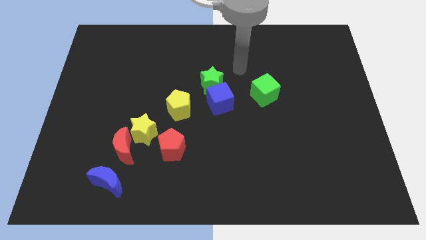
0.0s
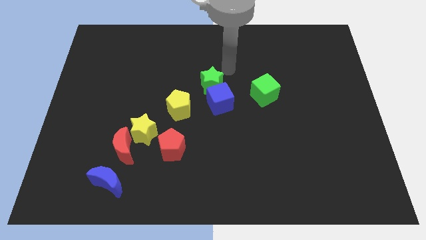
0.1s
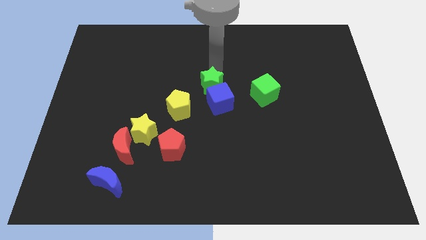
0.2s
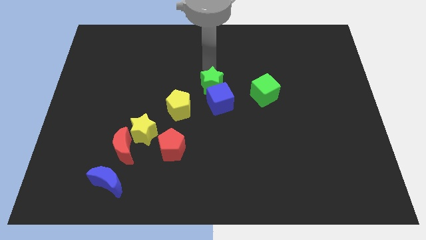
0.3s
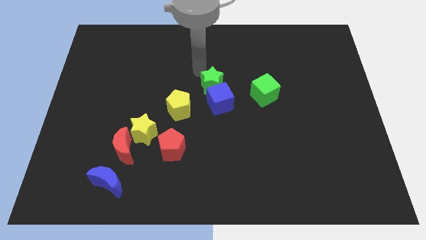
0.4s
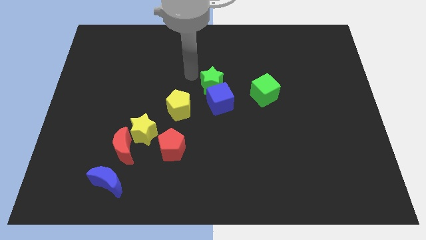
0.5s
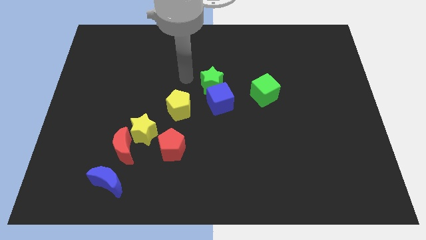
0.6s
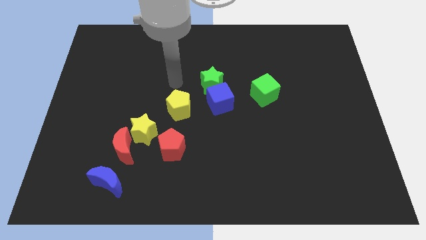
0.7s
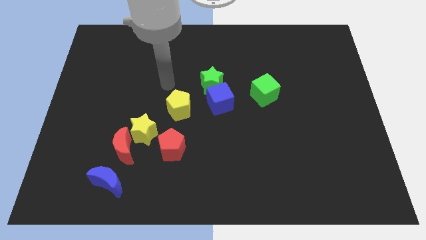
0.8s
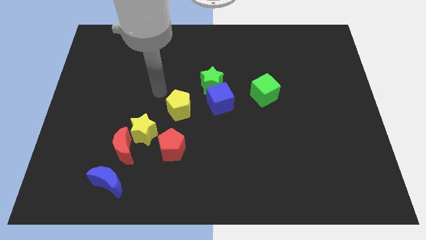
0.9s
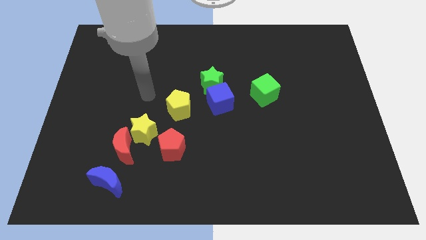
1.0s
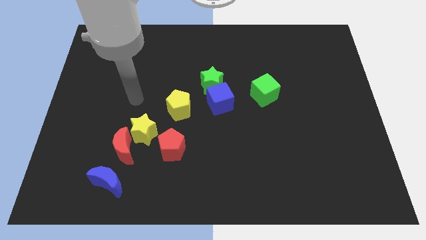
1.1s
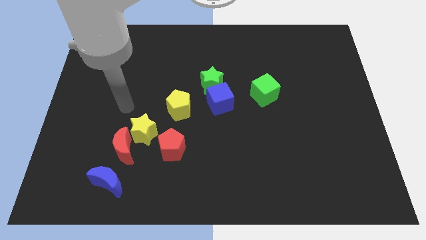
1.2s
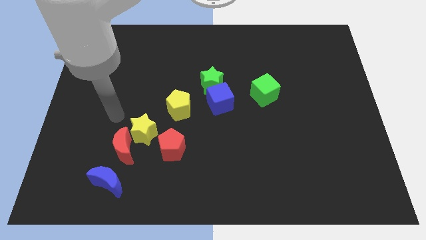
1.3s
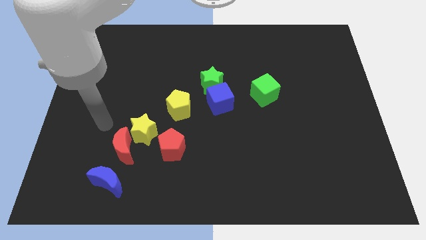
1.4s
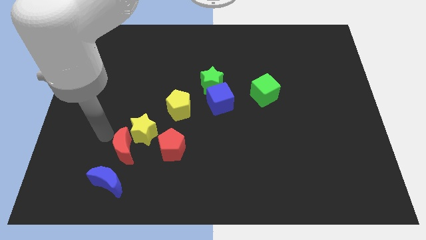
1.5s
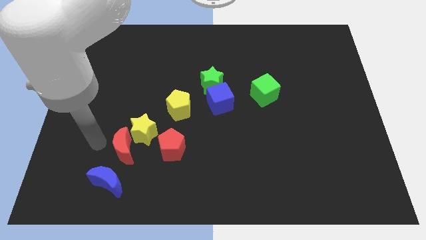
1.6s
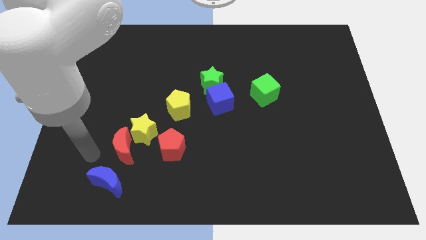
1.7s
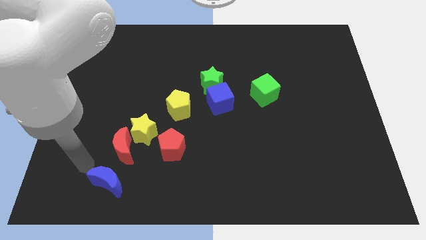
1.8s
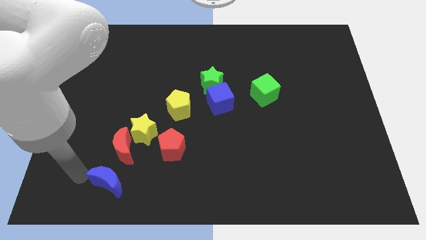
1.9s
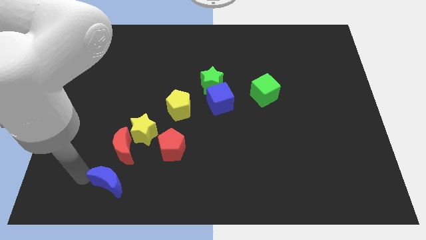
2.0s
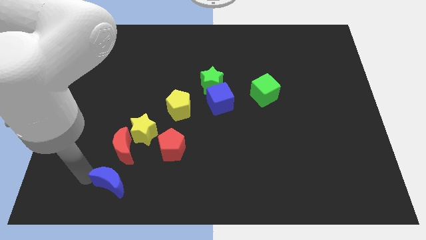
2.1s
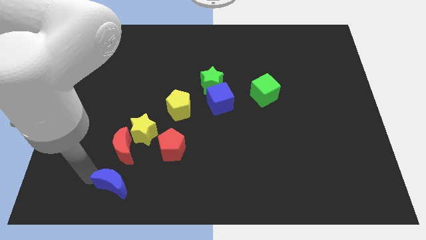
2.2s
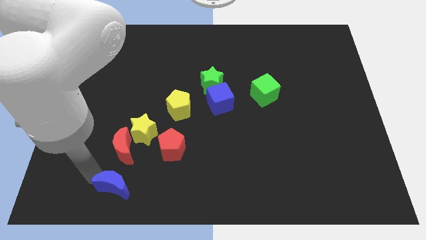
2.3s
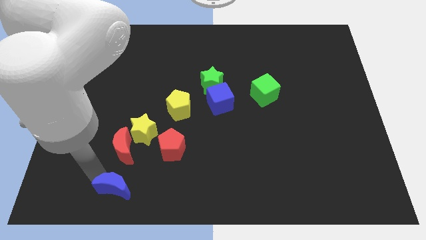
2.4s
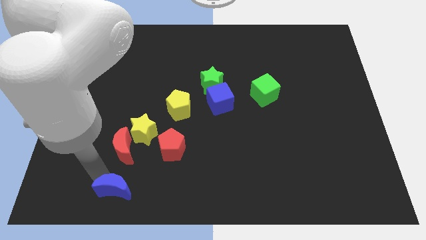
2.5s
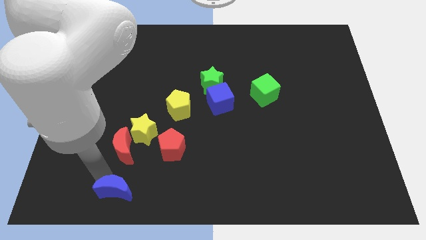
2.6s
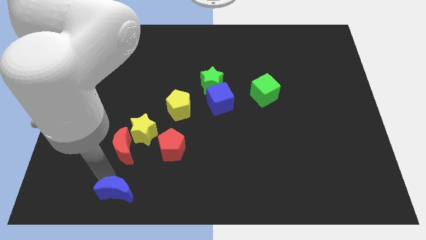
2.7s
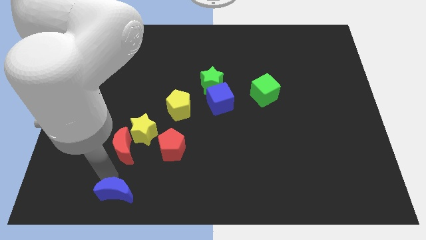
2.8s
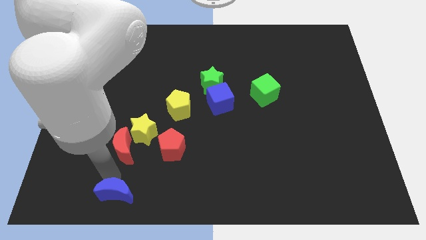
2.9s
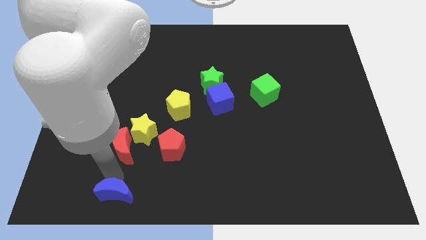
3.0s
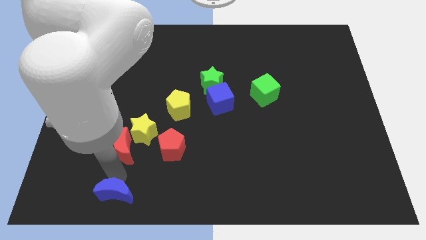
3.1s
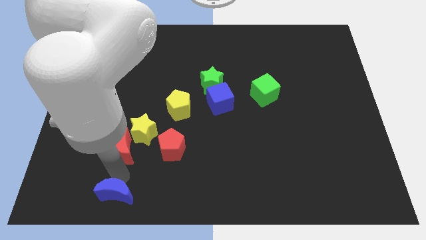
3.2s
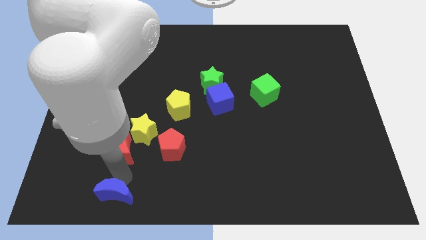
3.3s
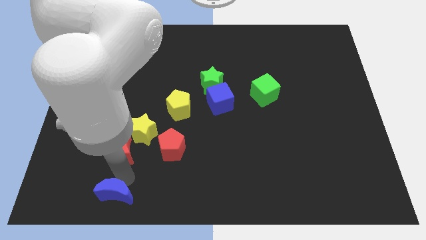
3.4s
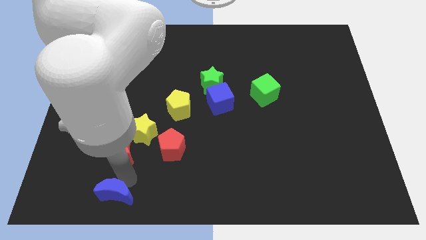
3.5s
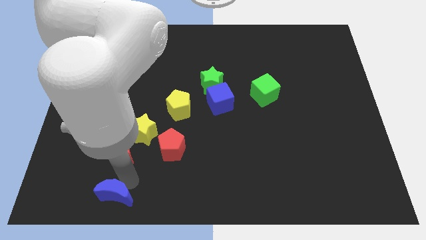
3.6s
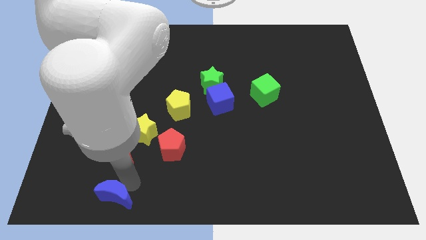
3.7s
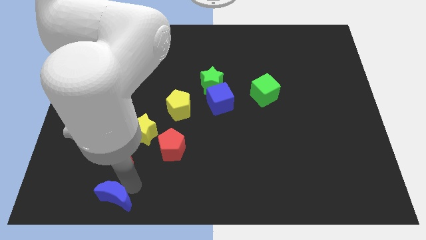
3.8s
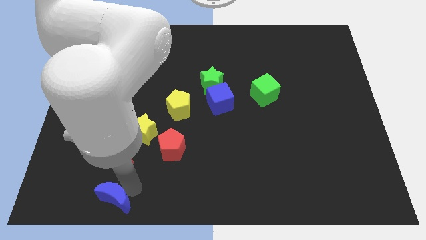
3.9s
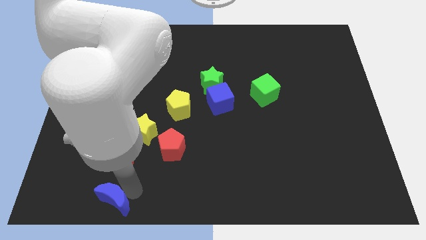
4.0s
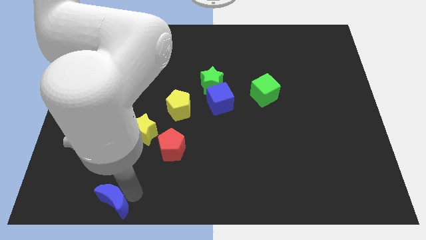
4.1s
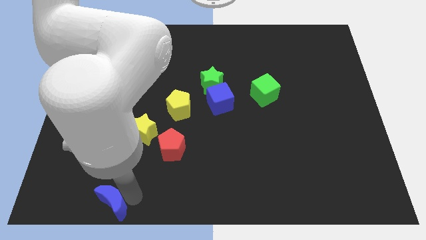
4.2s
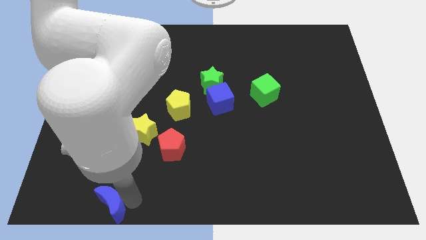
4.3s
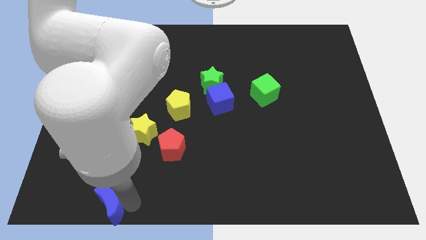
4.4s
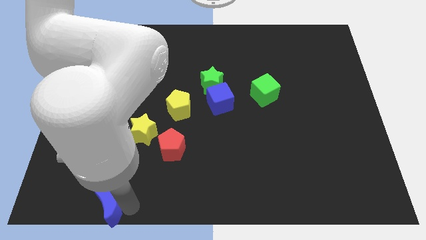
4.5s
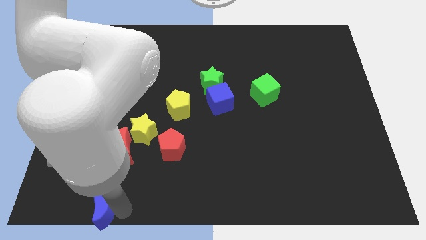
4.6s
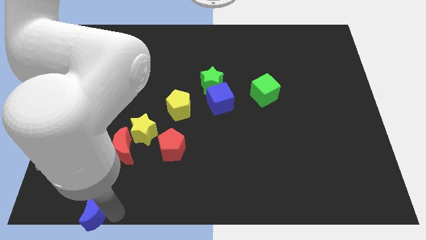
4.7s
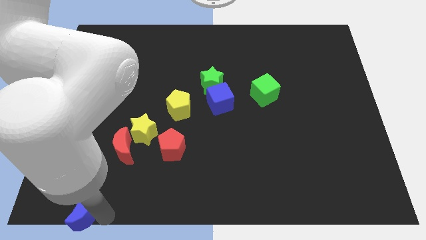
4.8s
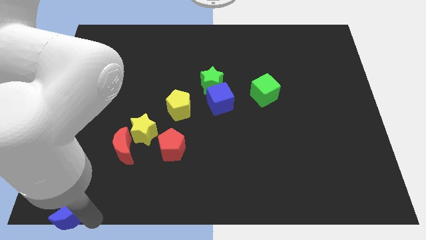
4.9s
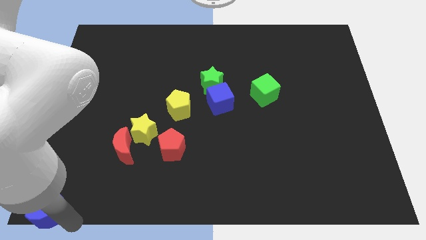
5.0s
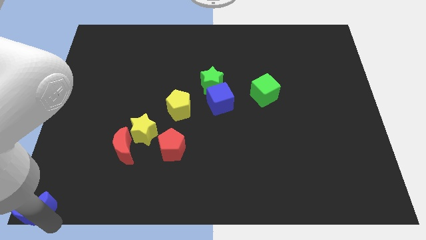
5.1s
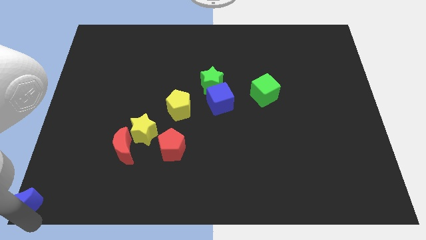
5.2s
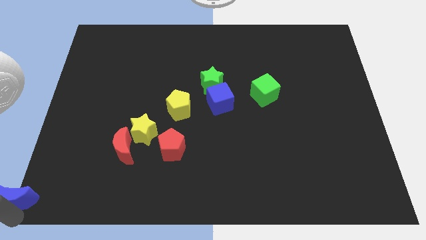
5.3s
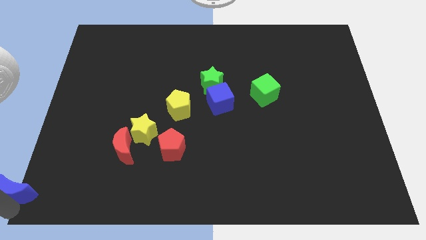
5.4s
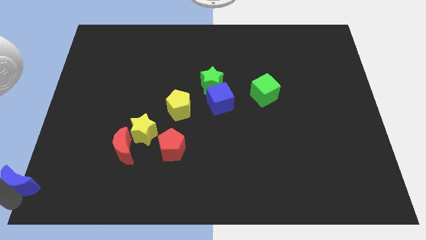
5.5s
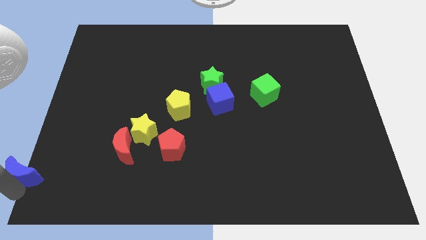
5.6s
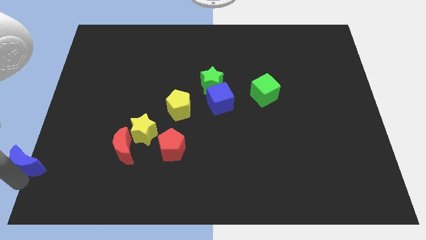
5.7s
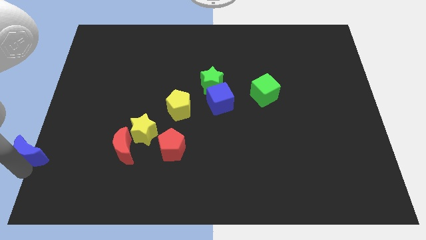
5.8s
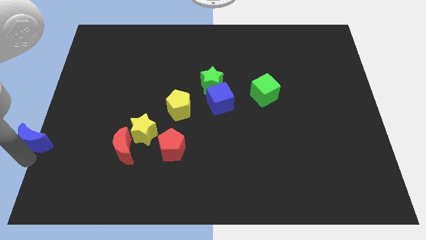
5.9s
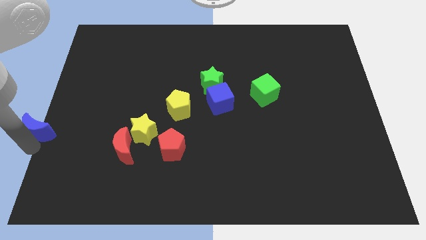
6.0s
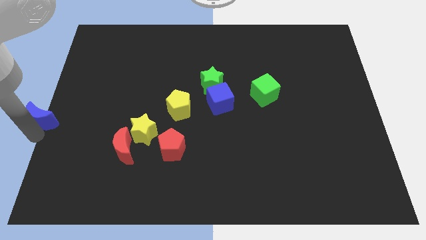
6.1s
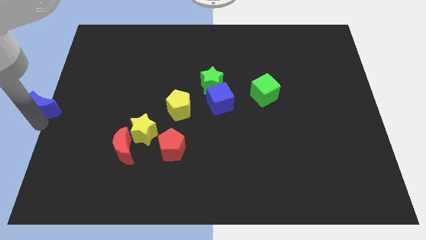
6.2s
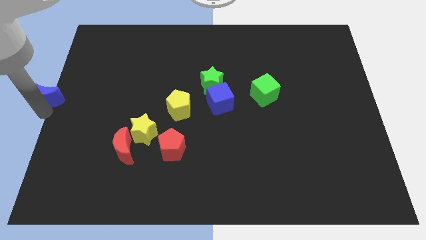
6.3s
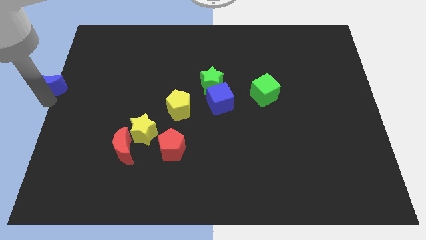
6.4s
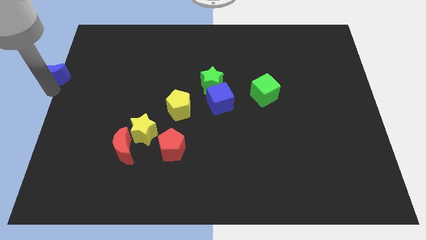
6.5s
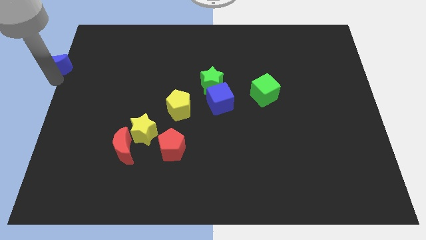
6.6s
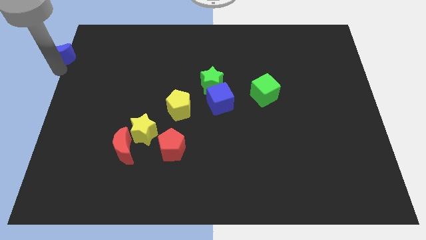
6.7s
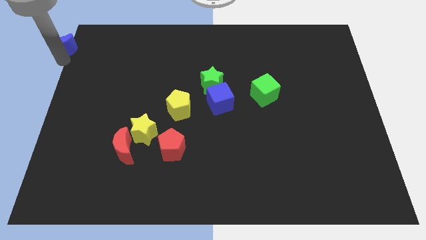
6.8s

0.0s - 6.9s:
move the blue moon to the top left of the board
